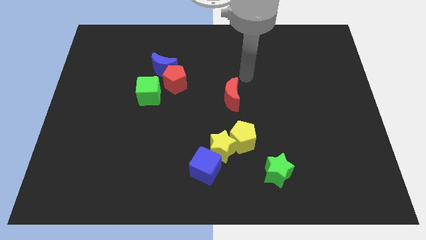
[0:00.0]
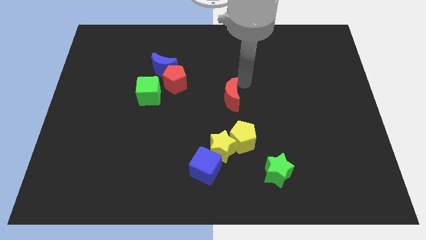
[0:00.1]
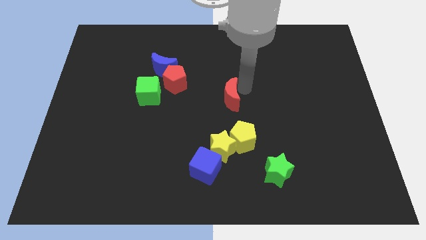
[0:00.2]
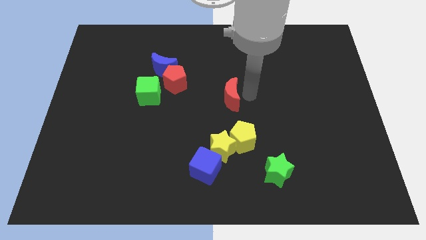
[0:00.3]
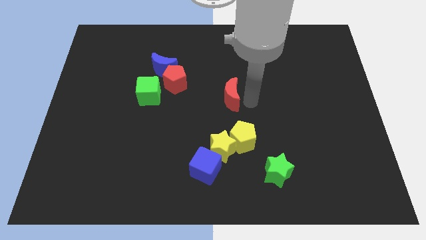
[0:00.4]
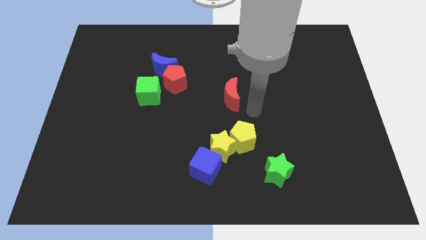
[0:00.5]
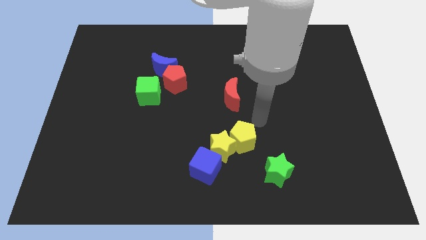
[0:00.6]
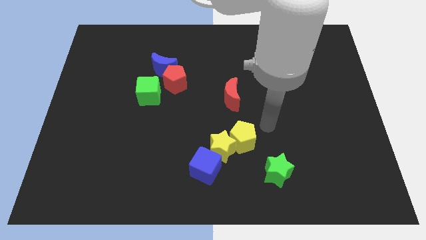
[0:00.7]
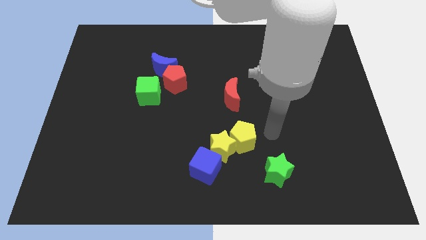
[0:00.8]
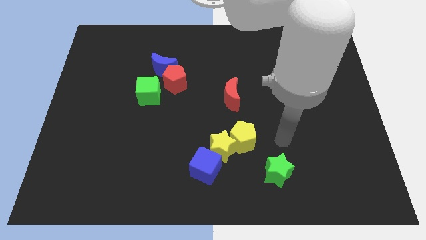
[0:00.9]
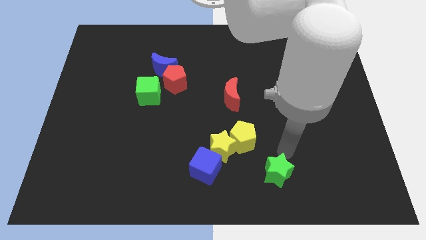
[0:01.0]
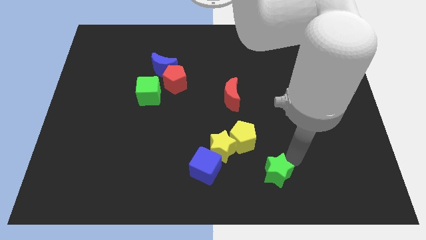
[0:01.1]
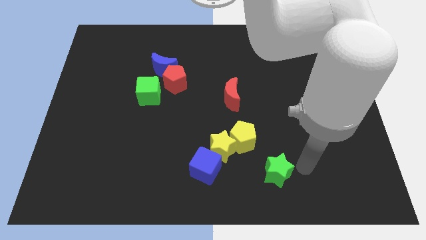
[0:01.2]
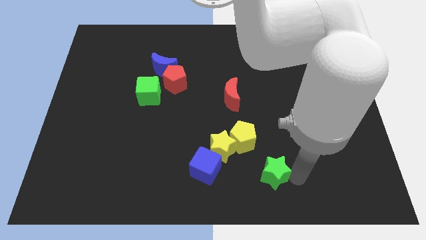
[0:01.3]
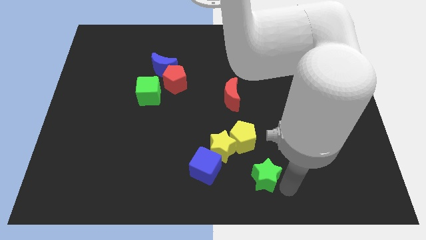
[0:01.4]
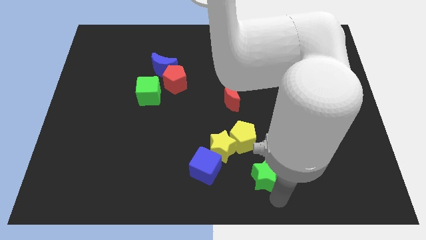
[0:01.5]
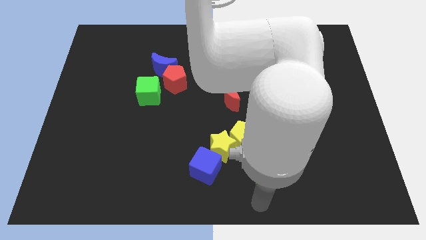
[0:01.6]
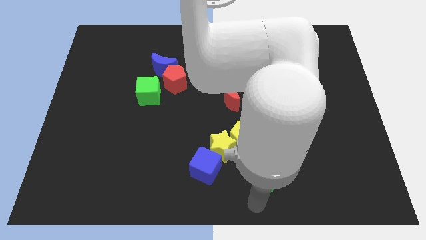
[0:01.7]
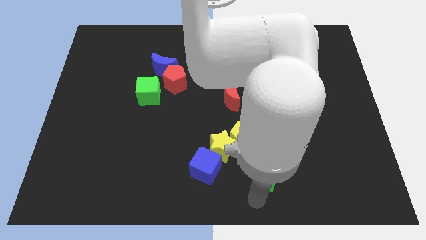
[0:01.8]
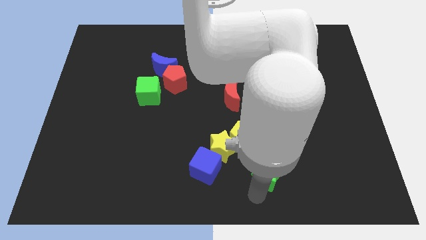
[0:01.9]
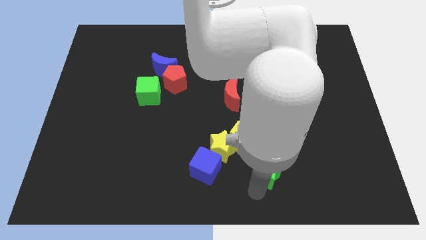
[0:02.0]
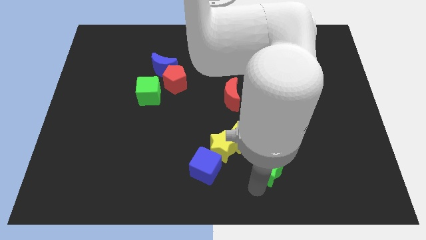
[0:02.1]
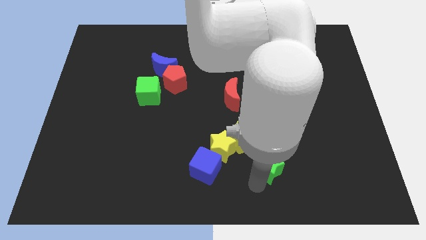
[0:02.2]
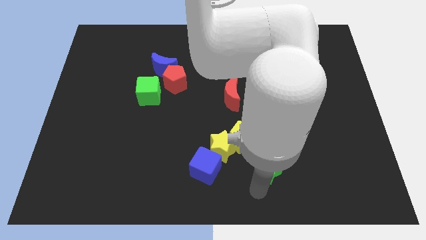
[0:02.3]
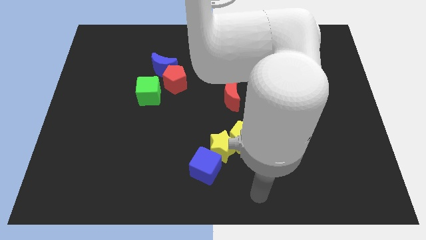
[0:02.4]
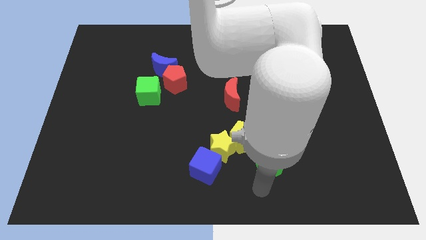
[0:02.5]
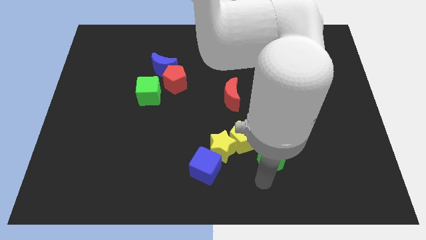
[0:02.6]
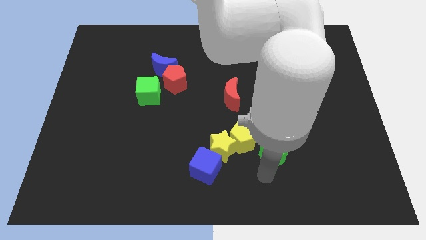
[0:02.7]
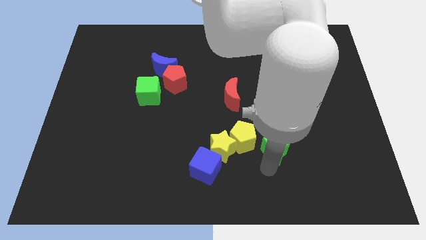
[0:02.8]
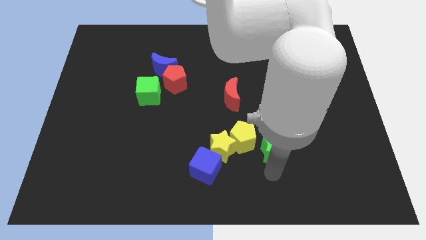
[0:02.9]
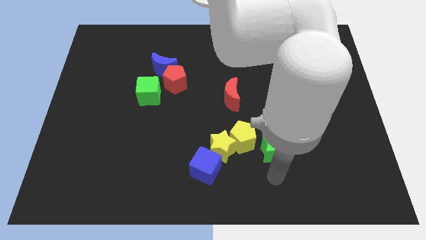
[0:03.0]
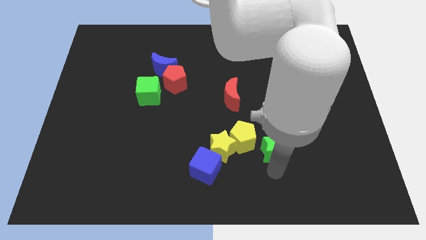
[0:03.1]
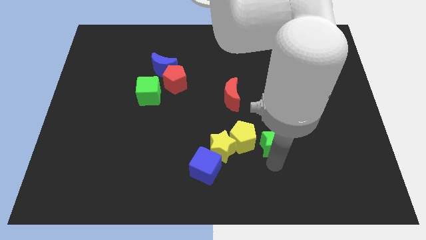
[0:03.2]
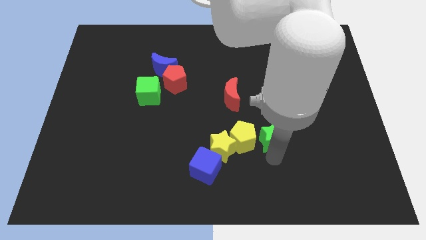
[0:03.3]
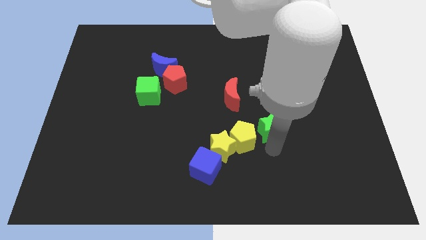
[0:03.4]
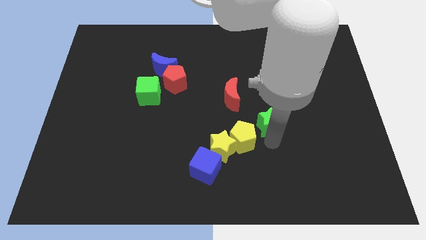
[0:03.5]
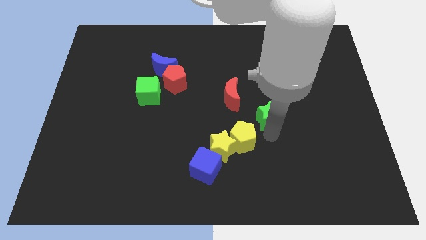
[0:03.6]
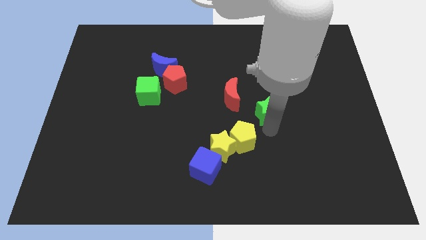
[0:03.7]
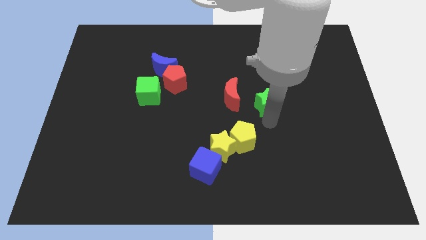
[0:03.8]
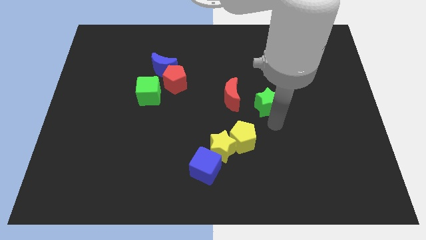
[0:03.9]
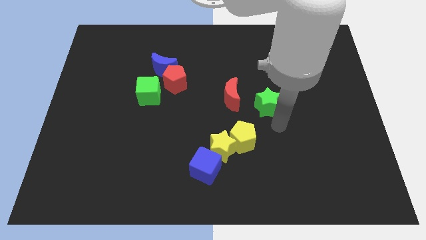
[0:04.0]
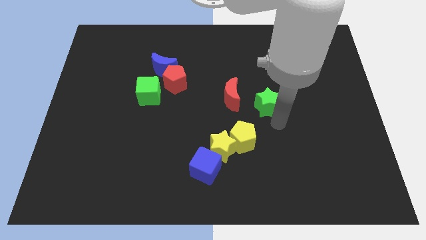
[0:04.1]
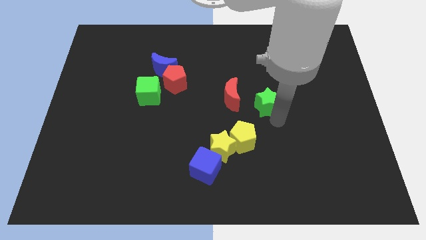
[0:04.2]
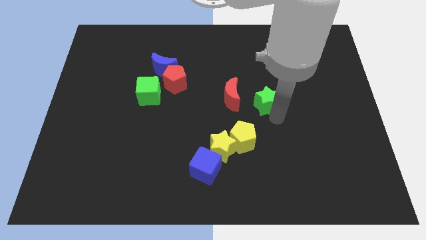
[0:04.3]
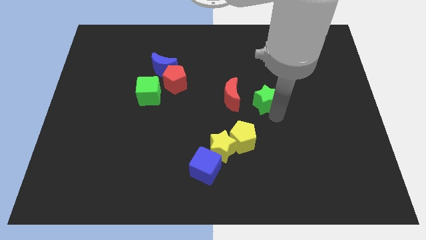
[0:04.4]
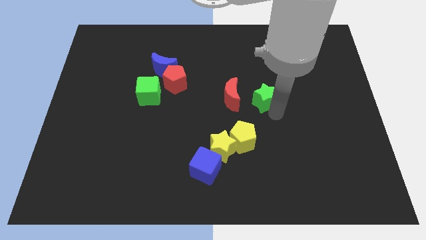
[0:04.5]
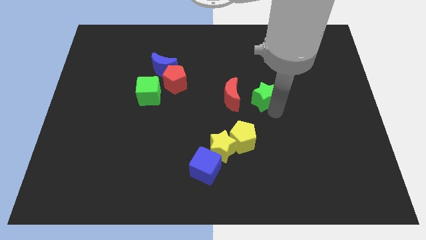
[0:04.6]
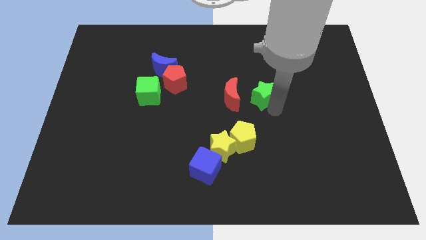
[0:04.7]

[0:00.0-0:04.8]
slide the green star upwards

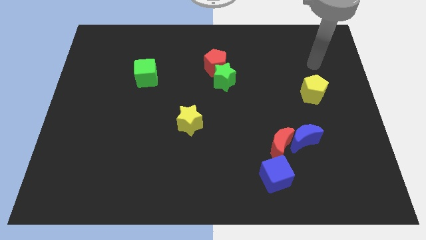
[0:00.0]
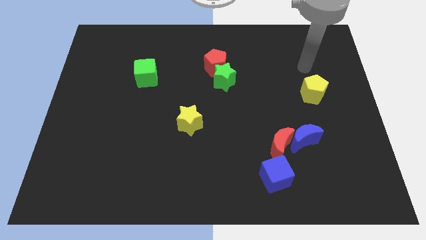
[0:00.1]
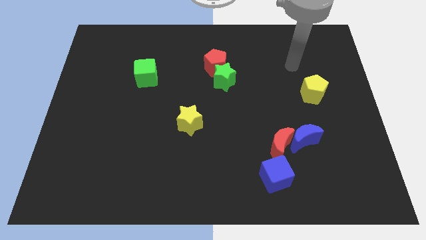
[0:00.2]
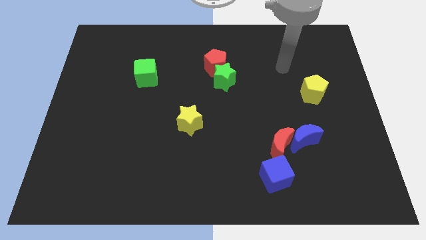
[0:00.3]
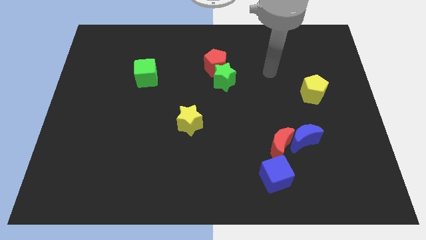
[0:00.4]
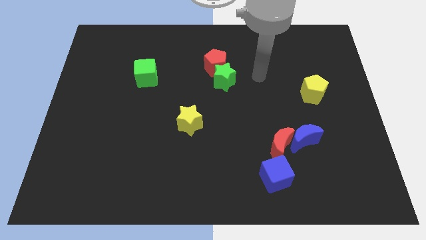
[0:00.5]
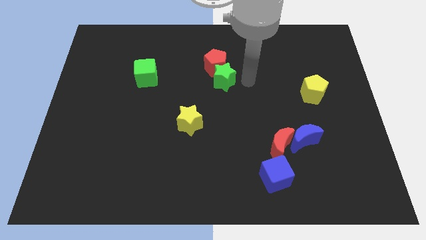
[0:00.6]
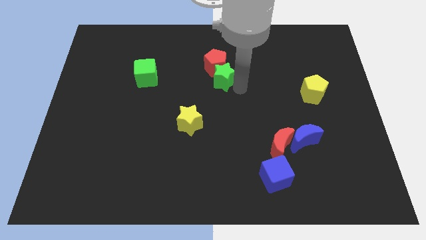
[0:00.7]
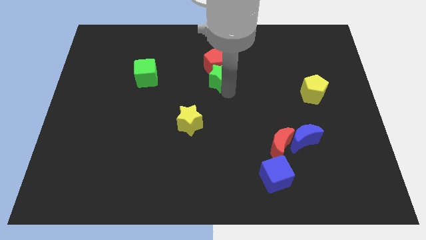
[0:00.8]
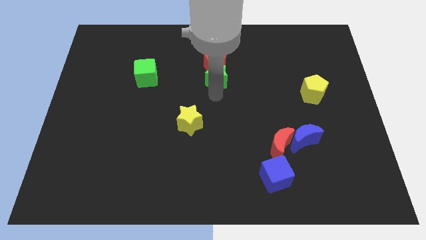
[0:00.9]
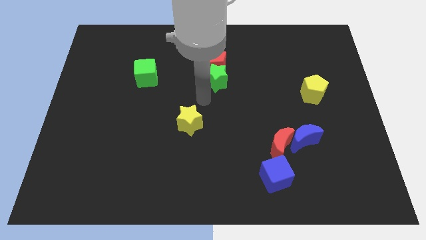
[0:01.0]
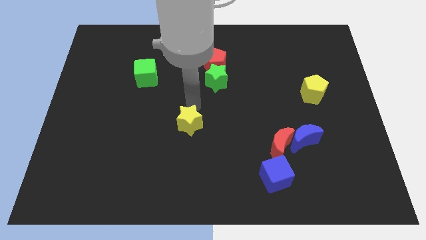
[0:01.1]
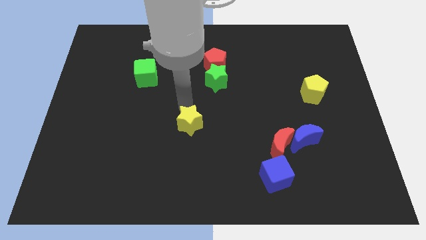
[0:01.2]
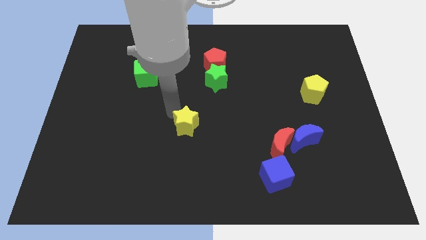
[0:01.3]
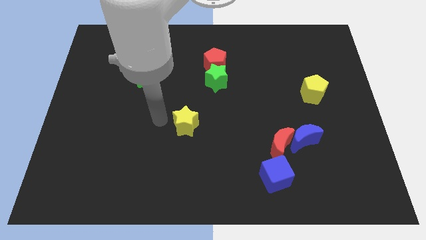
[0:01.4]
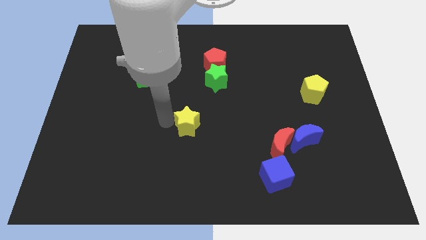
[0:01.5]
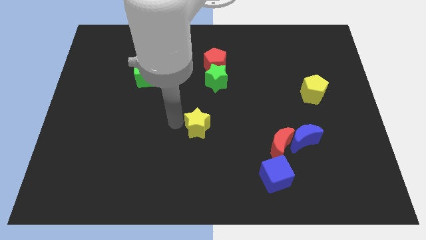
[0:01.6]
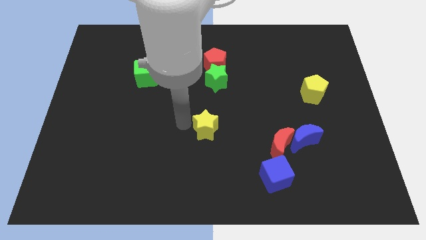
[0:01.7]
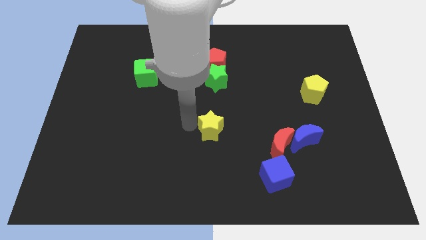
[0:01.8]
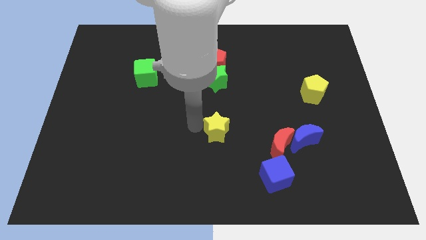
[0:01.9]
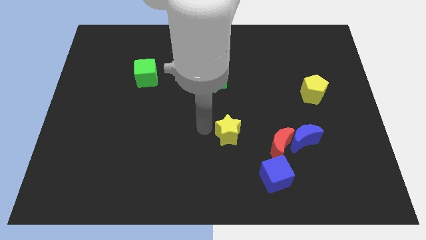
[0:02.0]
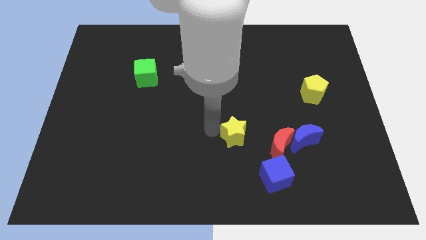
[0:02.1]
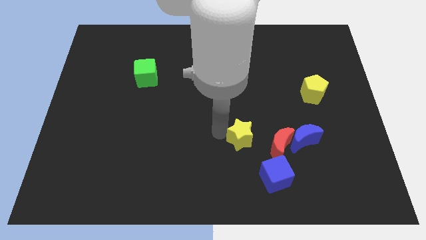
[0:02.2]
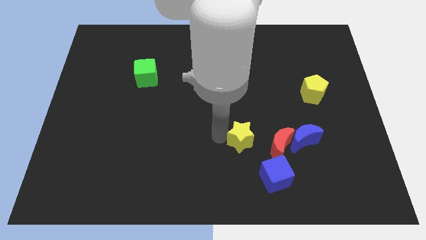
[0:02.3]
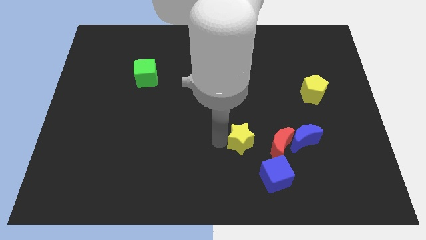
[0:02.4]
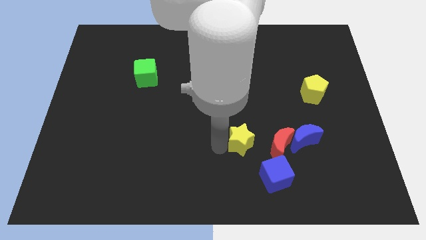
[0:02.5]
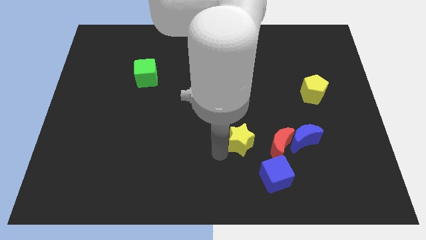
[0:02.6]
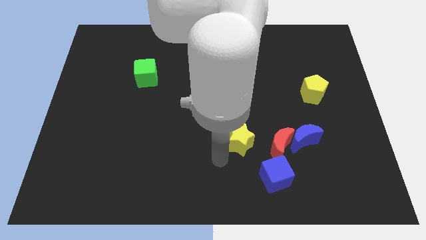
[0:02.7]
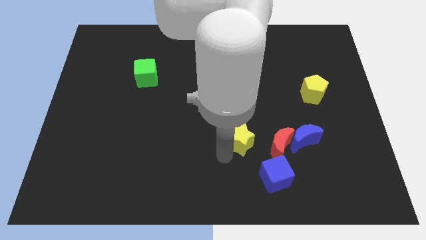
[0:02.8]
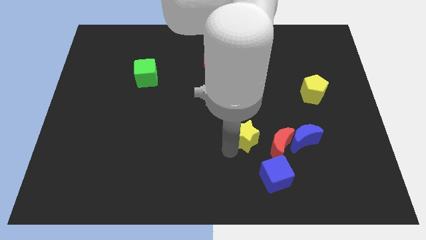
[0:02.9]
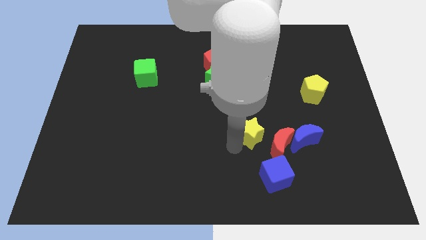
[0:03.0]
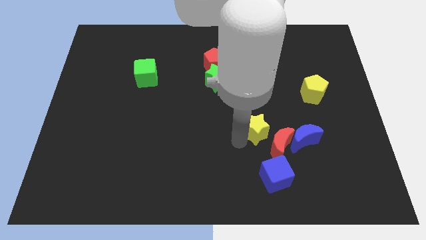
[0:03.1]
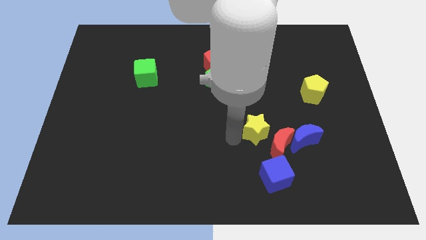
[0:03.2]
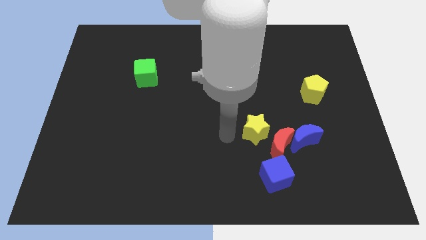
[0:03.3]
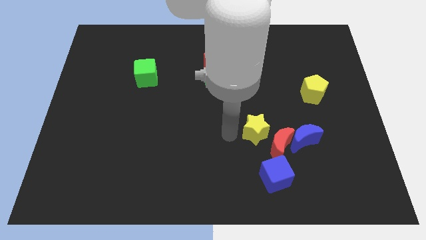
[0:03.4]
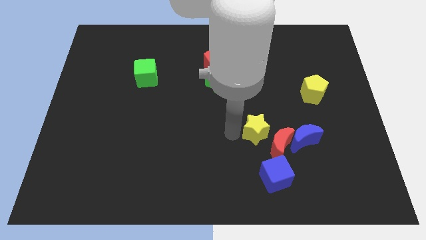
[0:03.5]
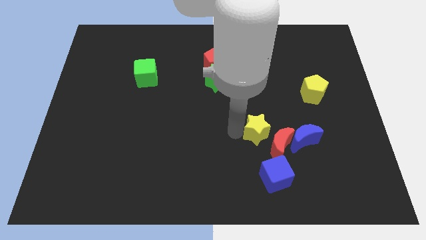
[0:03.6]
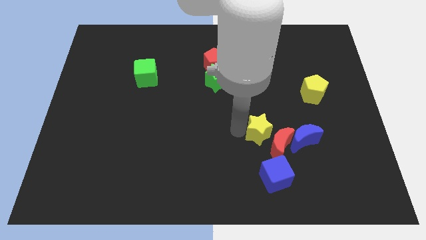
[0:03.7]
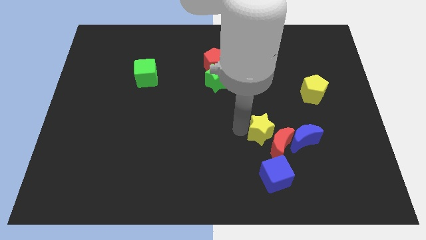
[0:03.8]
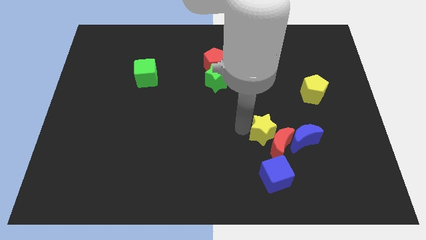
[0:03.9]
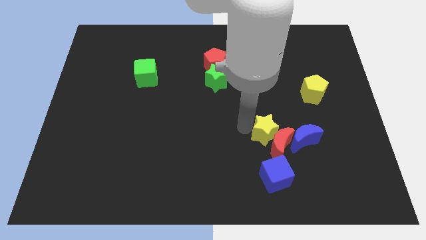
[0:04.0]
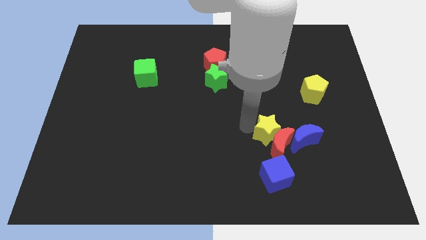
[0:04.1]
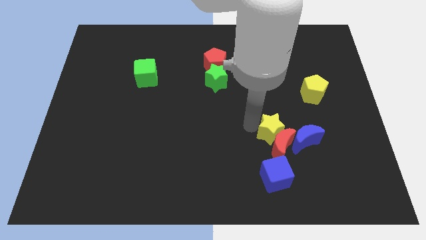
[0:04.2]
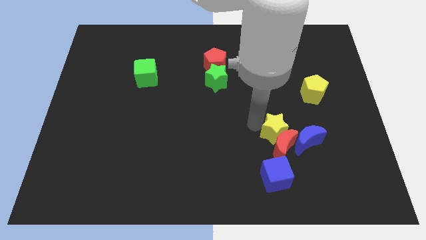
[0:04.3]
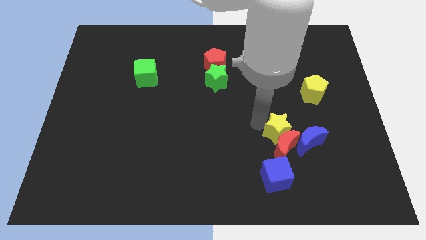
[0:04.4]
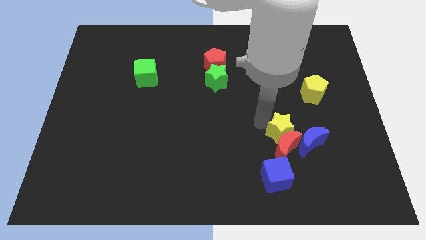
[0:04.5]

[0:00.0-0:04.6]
move the yellow star right
